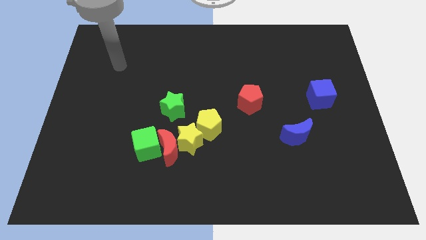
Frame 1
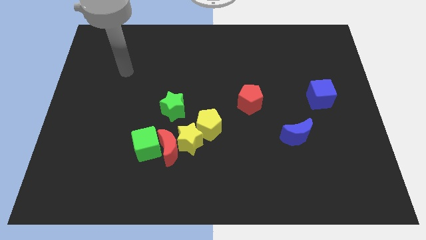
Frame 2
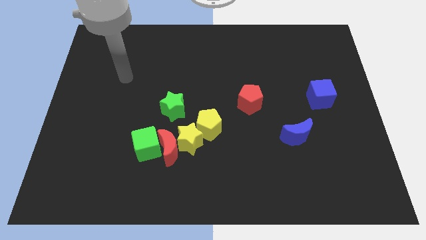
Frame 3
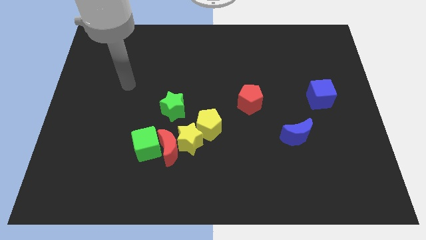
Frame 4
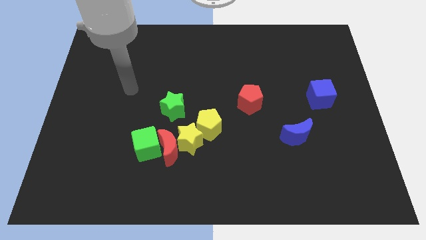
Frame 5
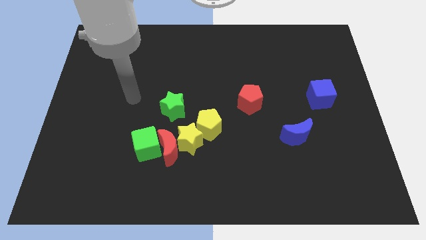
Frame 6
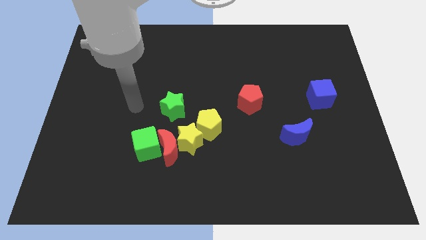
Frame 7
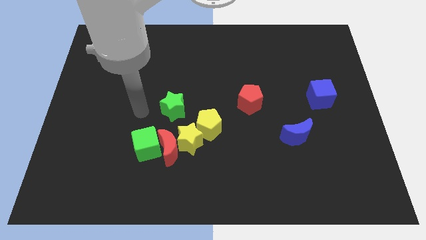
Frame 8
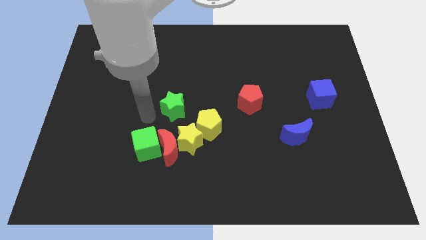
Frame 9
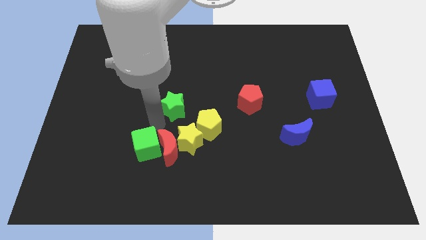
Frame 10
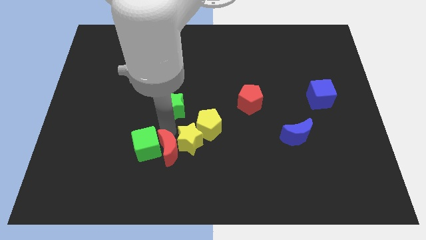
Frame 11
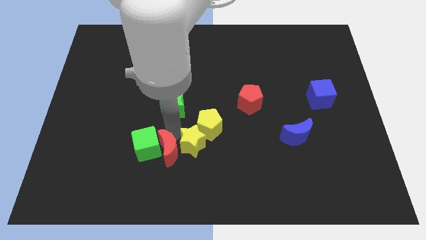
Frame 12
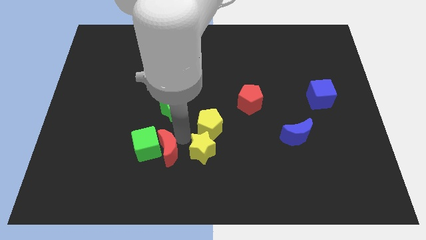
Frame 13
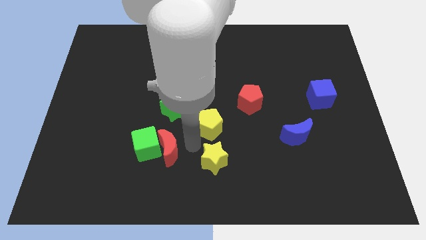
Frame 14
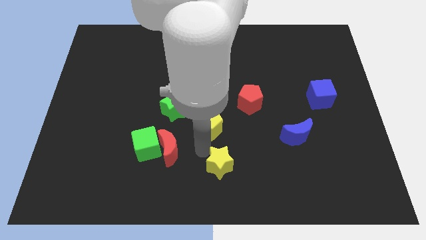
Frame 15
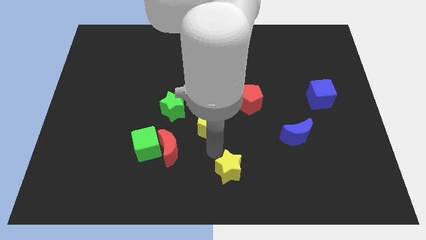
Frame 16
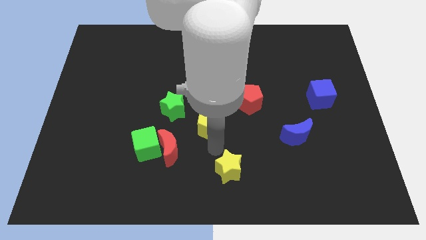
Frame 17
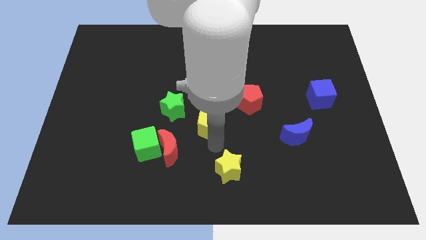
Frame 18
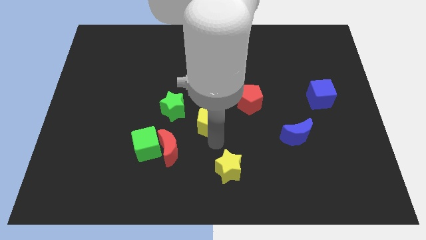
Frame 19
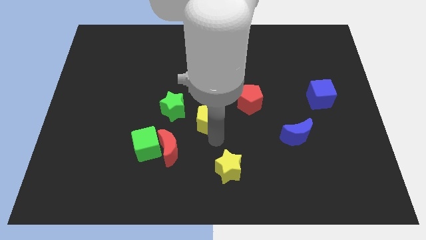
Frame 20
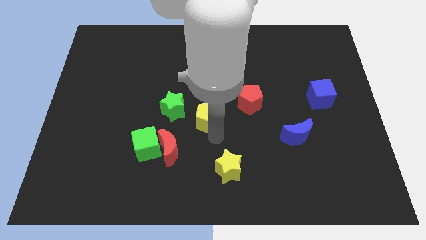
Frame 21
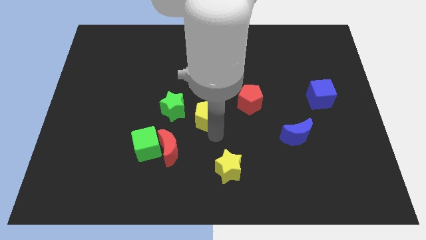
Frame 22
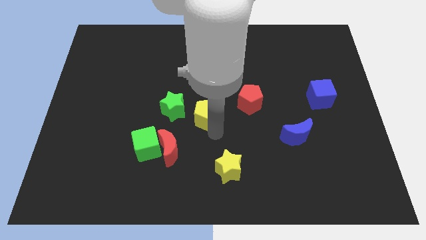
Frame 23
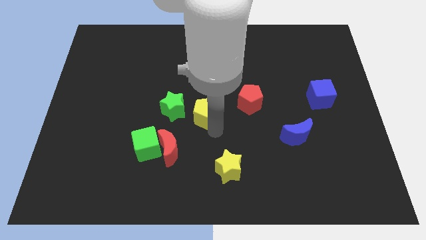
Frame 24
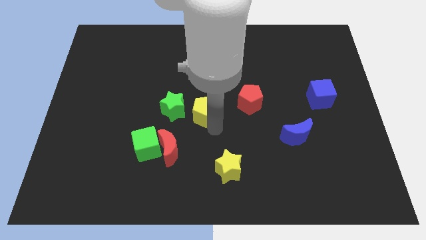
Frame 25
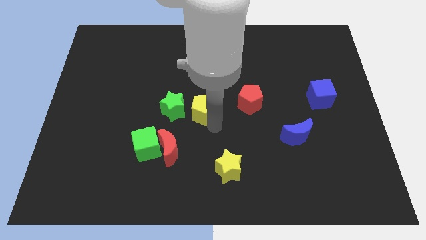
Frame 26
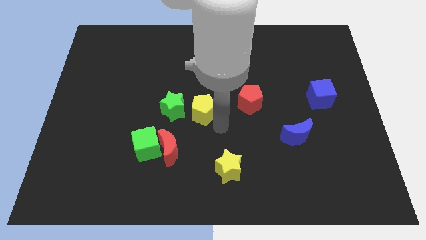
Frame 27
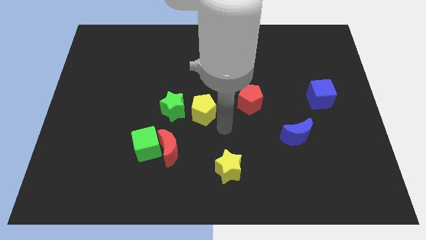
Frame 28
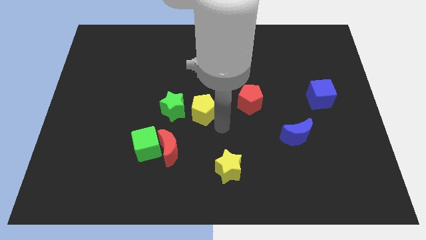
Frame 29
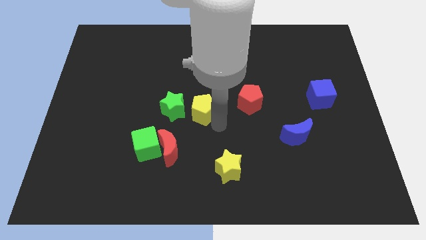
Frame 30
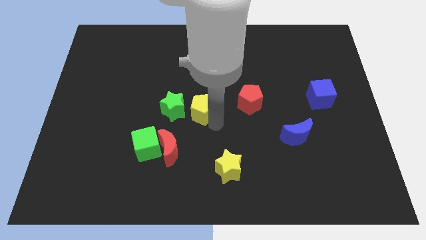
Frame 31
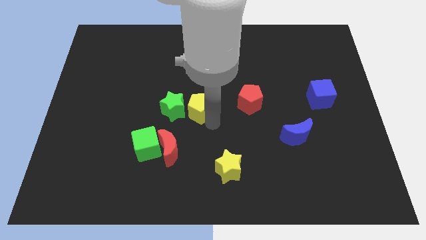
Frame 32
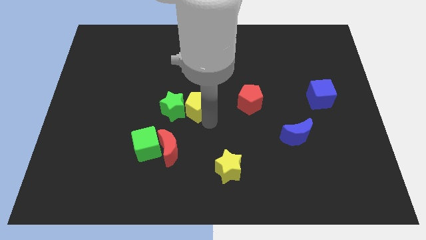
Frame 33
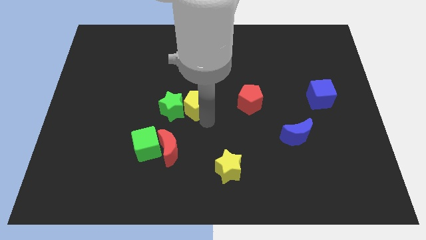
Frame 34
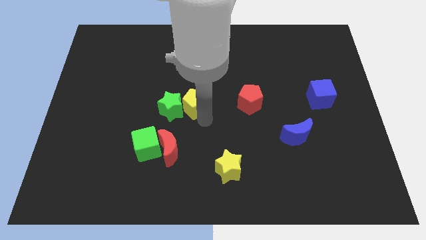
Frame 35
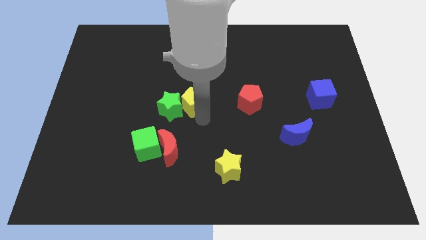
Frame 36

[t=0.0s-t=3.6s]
slightly move the yellow pentagon upwards and to the left

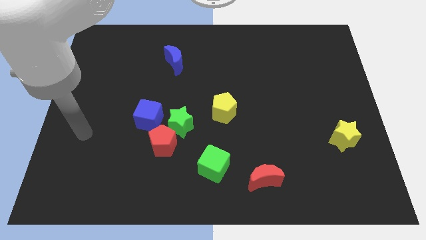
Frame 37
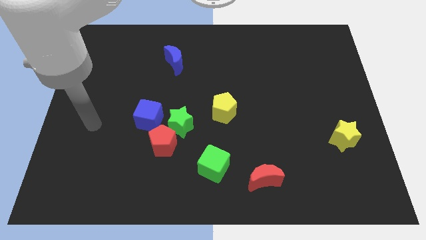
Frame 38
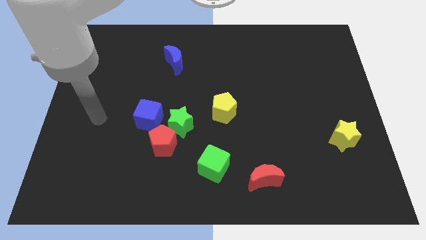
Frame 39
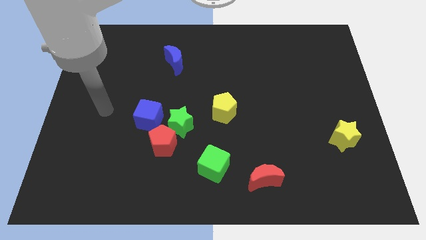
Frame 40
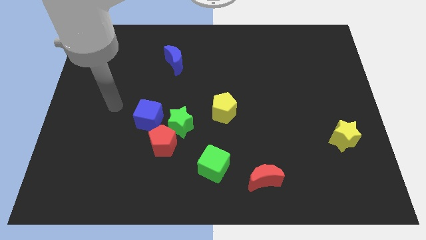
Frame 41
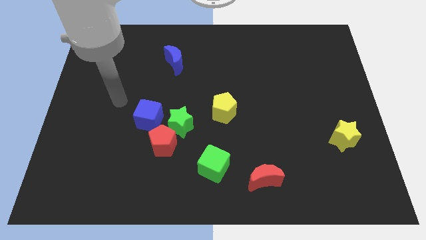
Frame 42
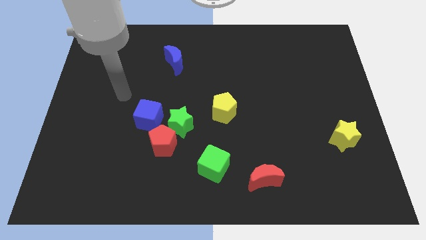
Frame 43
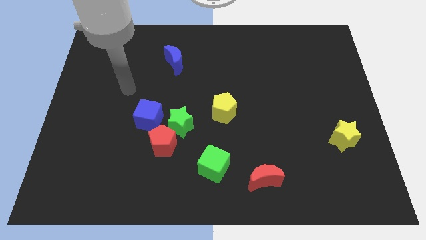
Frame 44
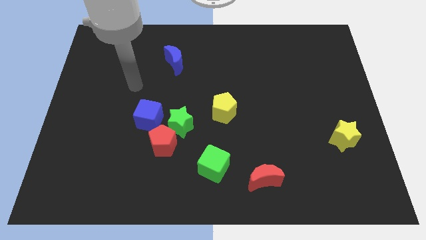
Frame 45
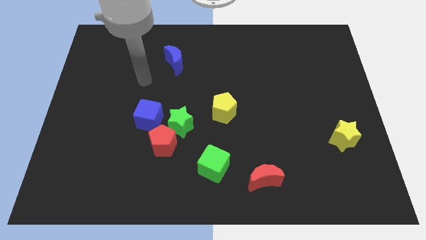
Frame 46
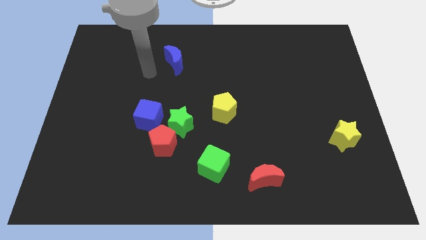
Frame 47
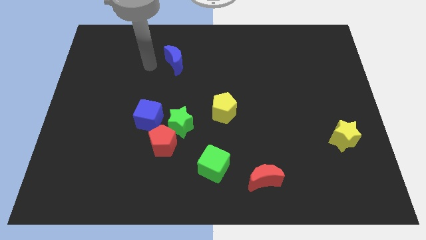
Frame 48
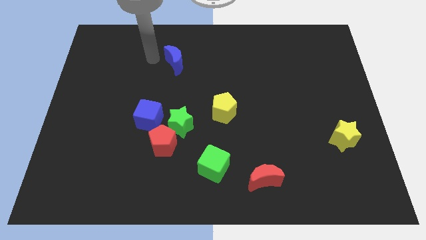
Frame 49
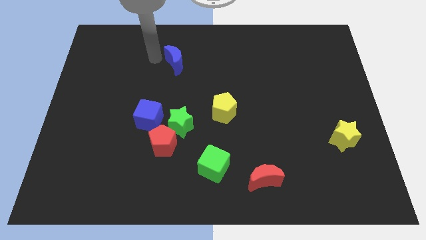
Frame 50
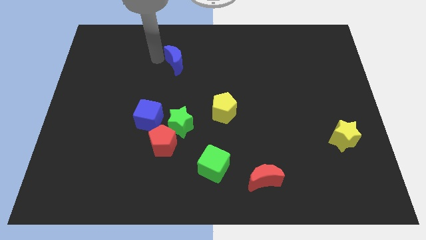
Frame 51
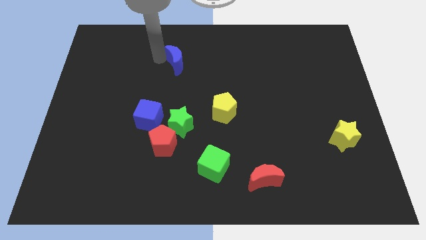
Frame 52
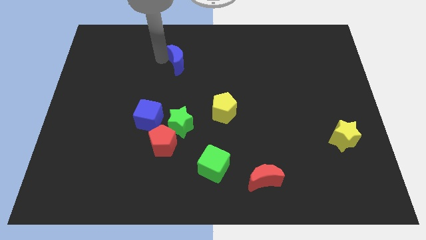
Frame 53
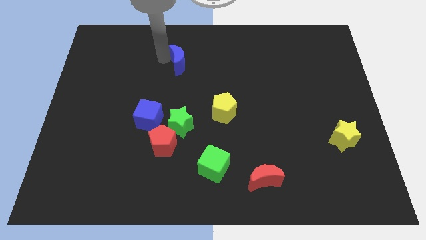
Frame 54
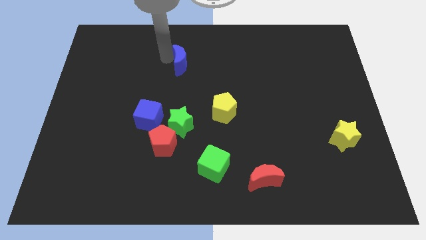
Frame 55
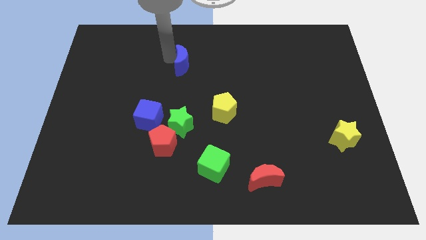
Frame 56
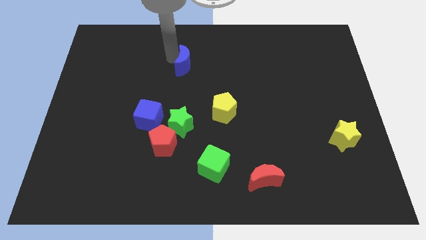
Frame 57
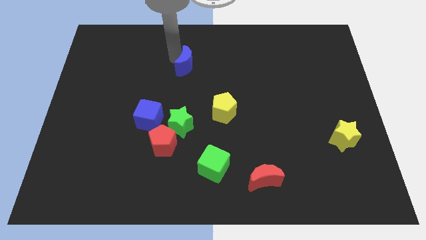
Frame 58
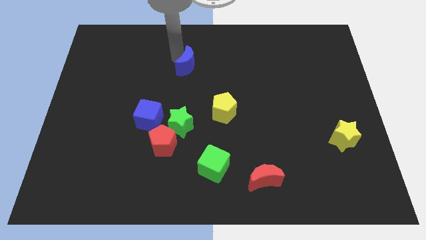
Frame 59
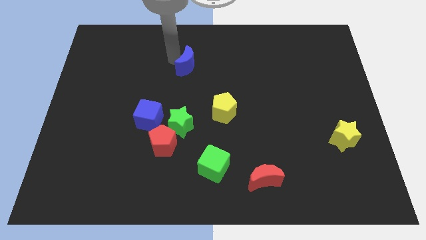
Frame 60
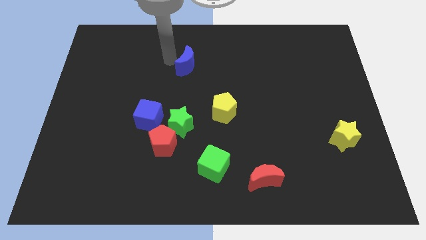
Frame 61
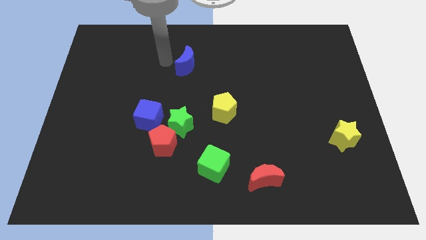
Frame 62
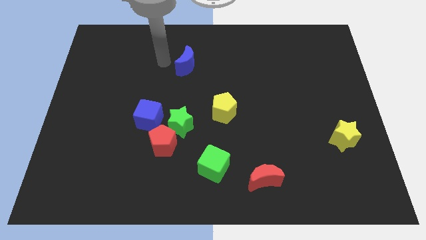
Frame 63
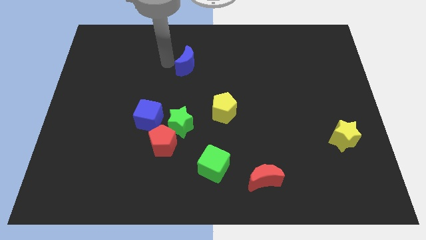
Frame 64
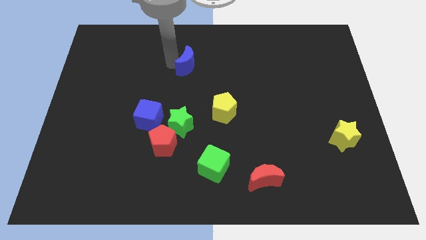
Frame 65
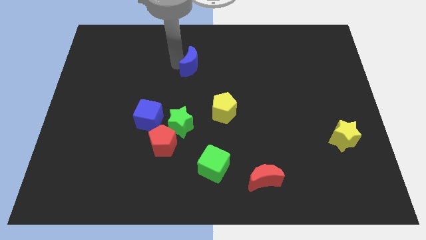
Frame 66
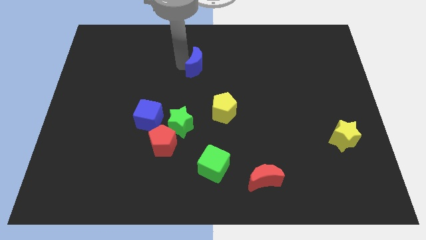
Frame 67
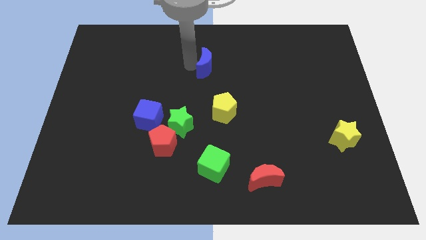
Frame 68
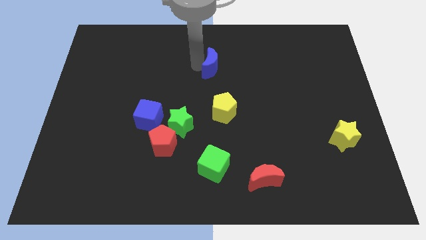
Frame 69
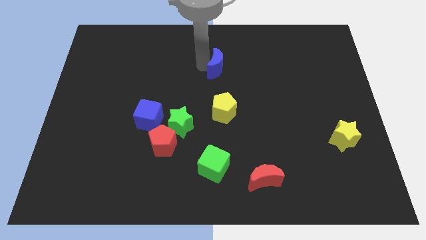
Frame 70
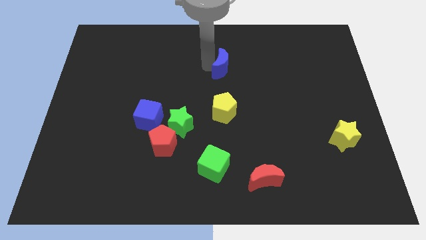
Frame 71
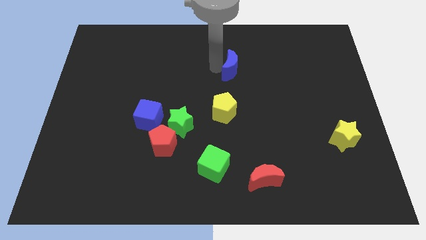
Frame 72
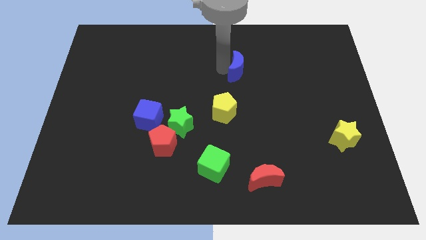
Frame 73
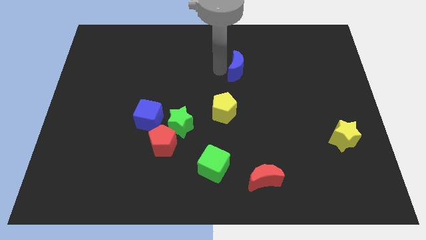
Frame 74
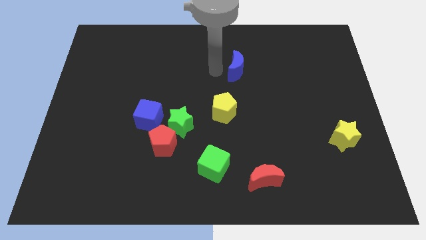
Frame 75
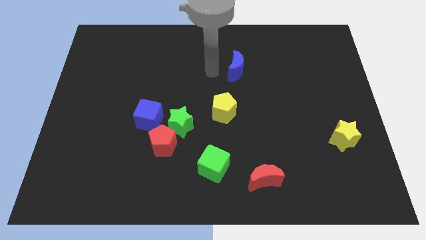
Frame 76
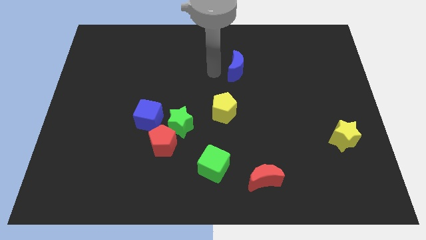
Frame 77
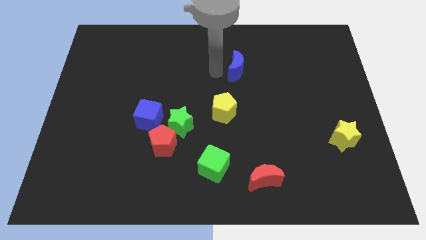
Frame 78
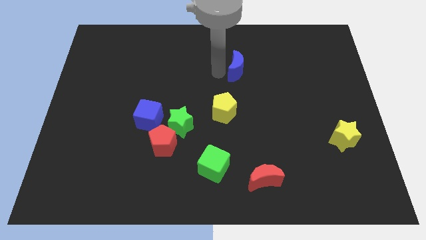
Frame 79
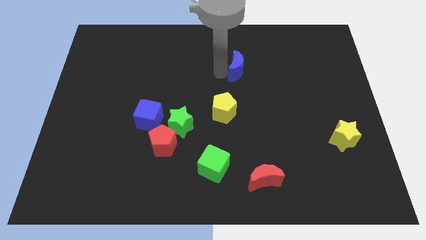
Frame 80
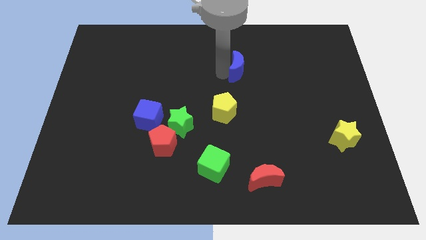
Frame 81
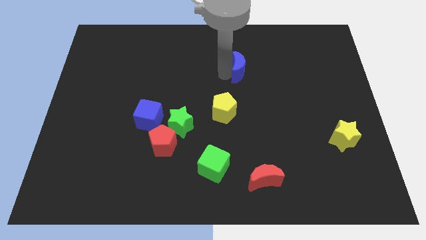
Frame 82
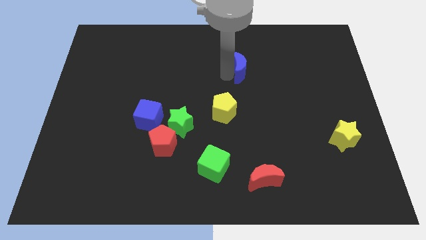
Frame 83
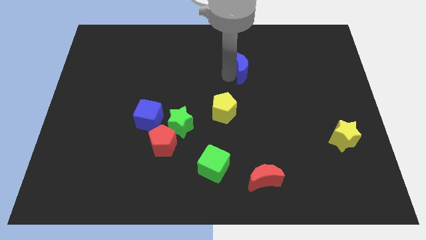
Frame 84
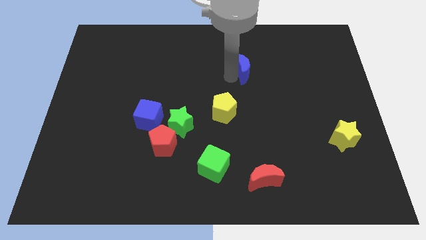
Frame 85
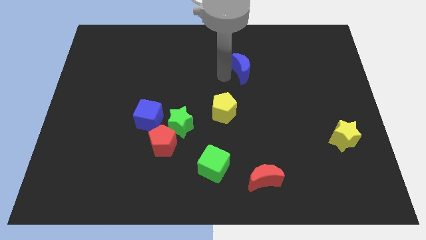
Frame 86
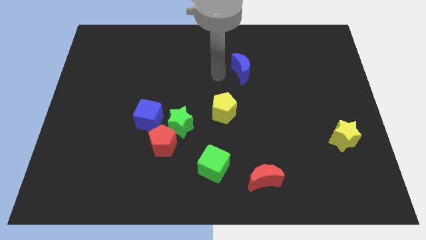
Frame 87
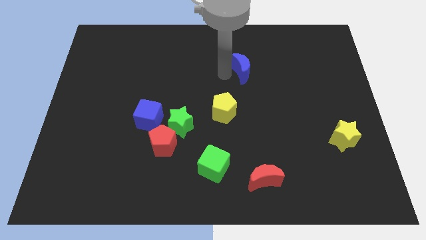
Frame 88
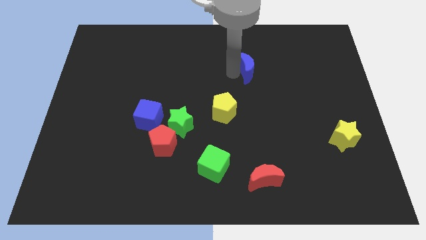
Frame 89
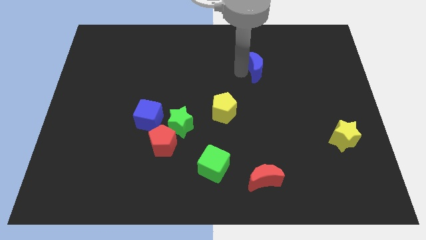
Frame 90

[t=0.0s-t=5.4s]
move the blue moon to the right
